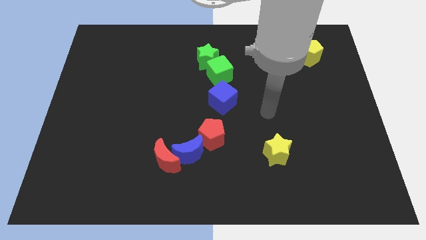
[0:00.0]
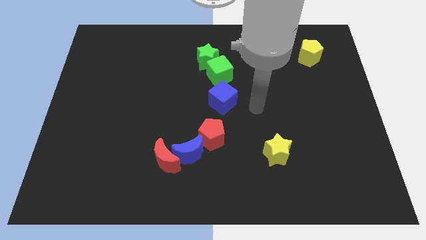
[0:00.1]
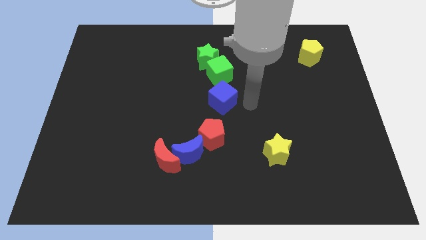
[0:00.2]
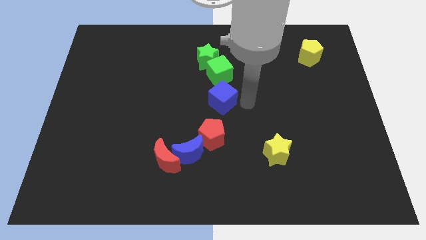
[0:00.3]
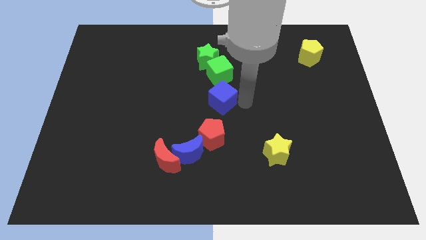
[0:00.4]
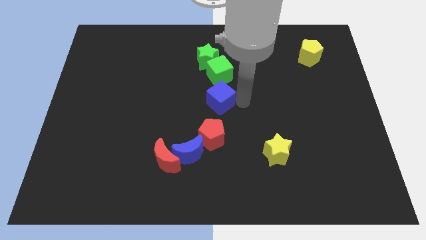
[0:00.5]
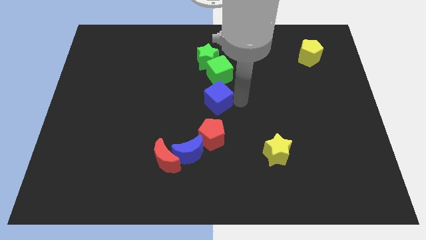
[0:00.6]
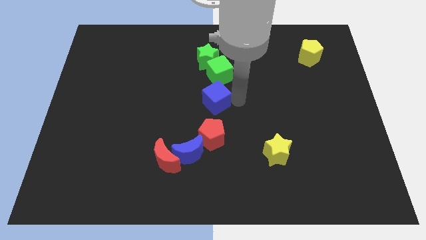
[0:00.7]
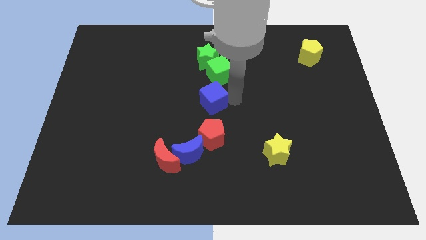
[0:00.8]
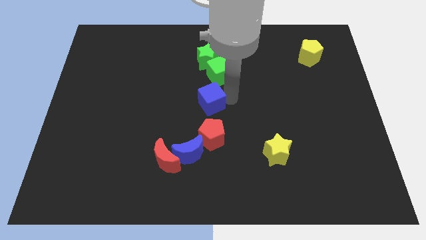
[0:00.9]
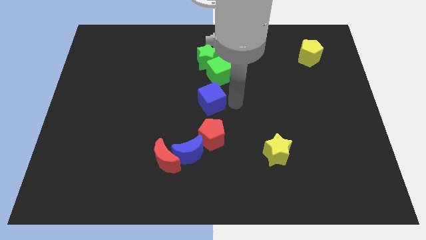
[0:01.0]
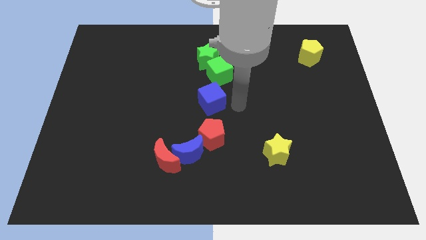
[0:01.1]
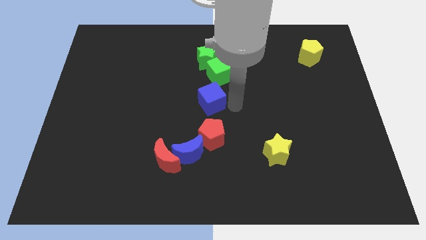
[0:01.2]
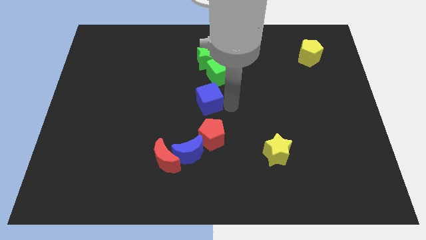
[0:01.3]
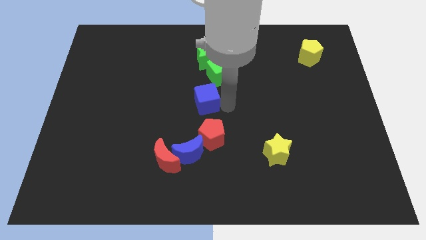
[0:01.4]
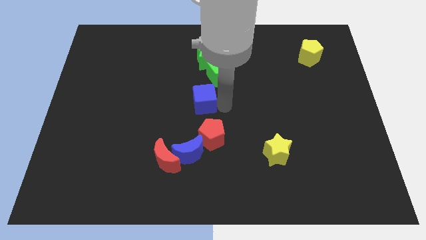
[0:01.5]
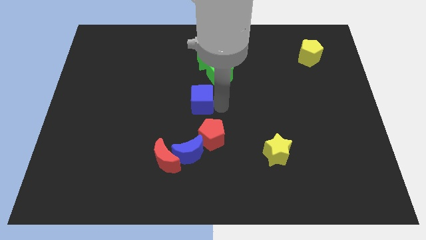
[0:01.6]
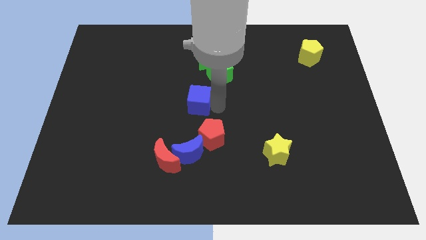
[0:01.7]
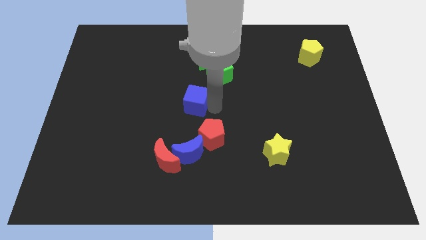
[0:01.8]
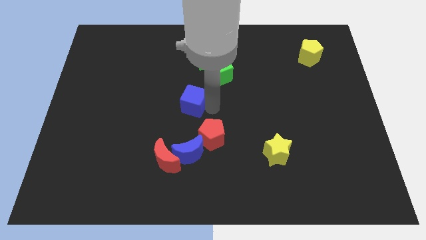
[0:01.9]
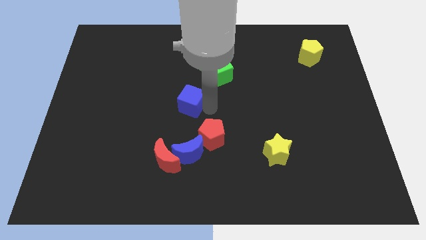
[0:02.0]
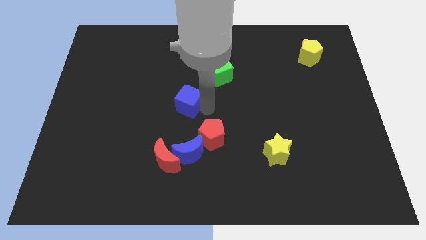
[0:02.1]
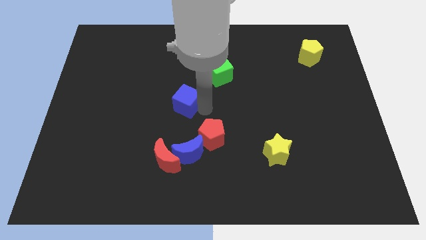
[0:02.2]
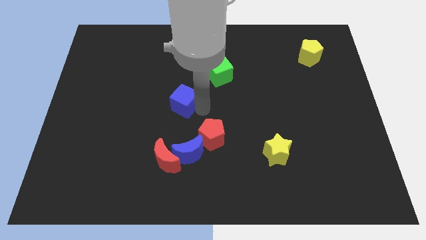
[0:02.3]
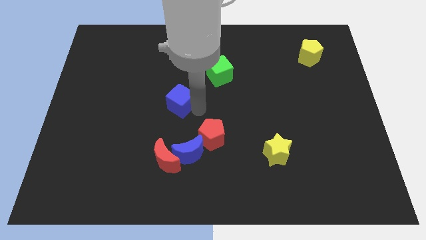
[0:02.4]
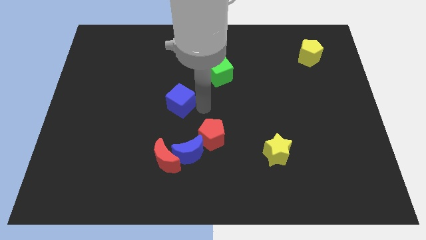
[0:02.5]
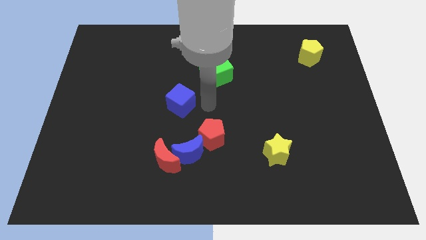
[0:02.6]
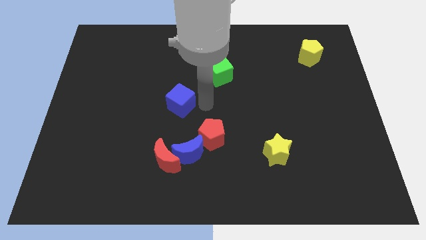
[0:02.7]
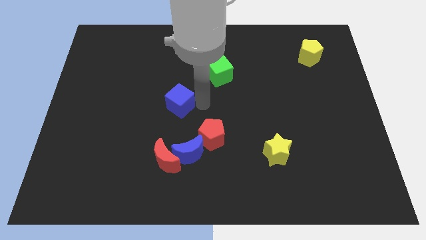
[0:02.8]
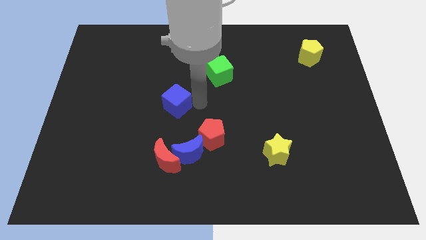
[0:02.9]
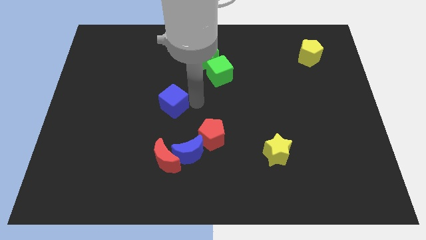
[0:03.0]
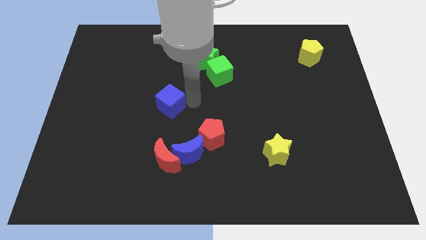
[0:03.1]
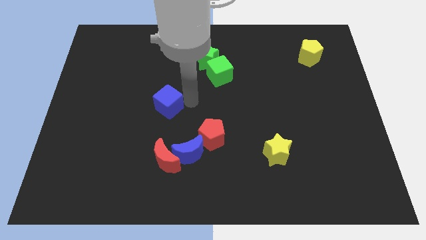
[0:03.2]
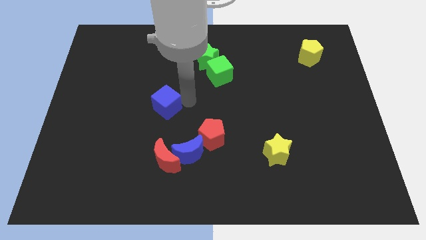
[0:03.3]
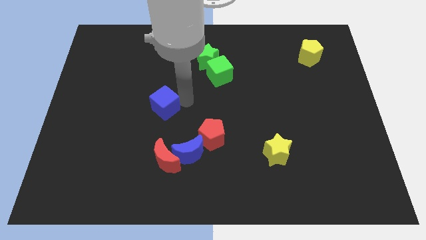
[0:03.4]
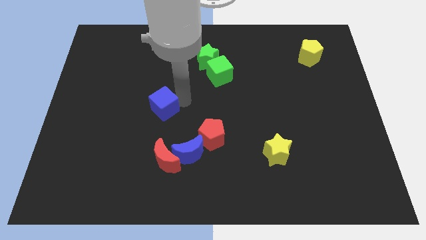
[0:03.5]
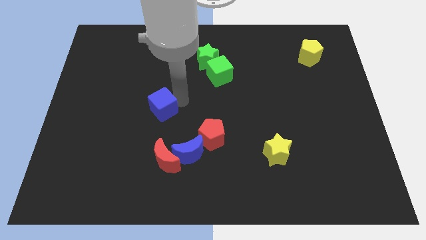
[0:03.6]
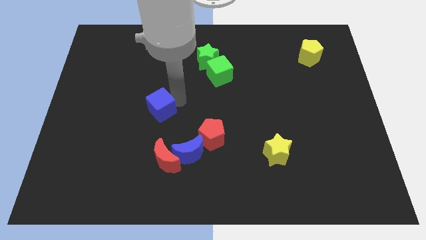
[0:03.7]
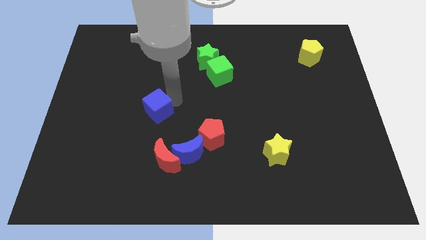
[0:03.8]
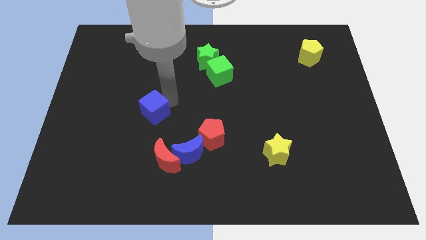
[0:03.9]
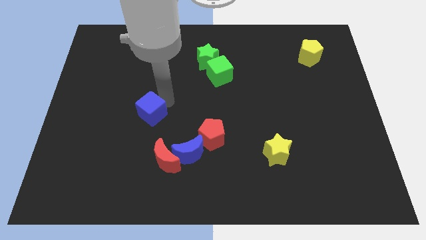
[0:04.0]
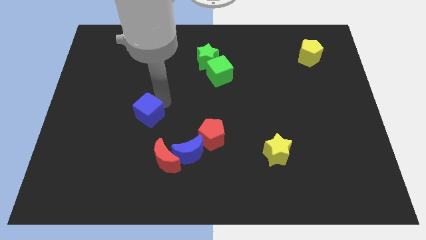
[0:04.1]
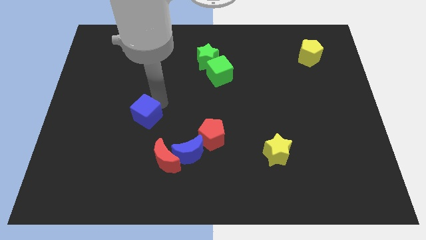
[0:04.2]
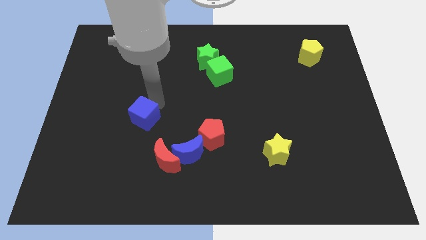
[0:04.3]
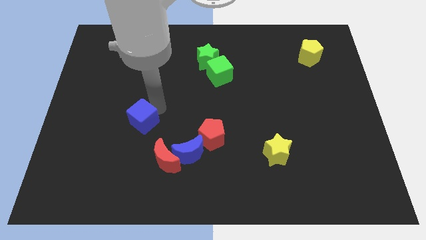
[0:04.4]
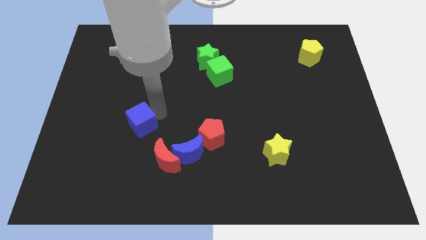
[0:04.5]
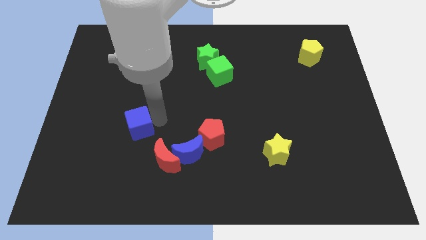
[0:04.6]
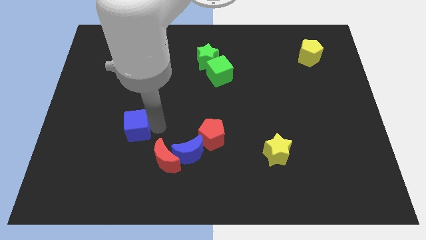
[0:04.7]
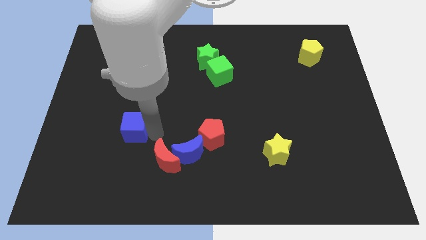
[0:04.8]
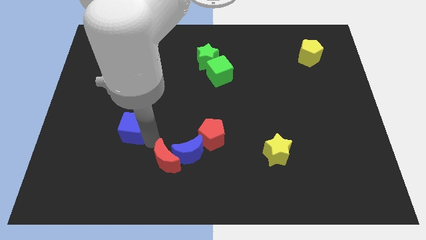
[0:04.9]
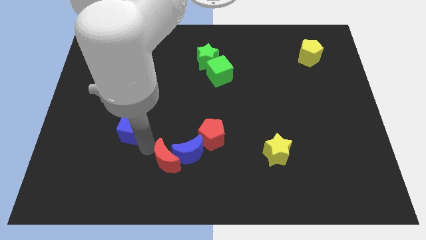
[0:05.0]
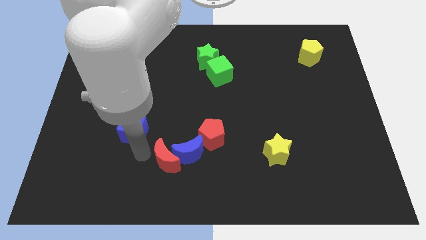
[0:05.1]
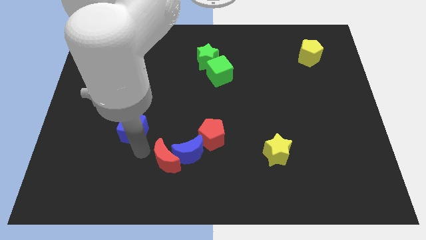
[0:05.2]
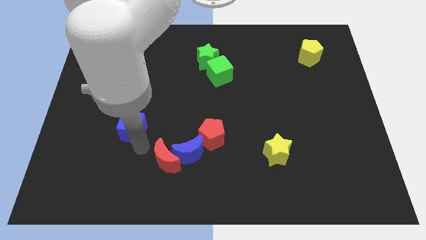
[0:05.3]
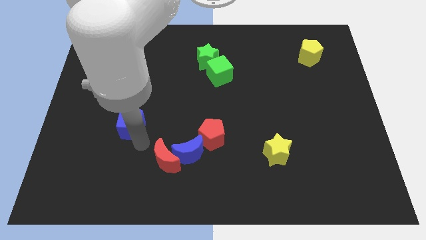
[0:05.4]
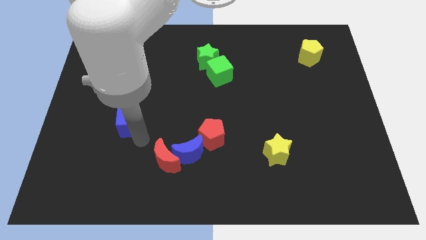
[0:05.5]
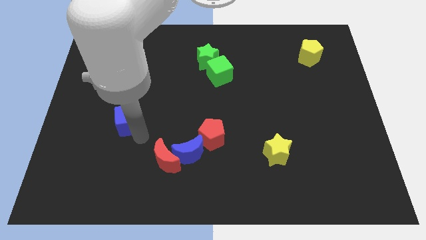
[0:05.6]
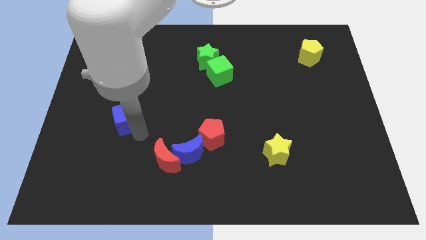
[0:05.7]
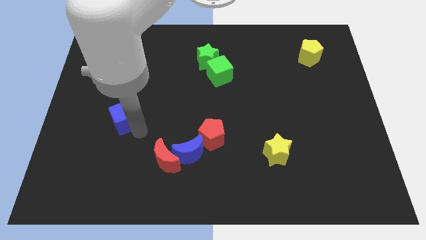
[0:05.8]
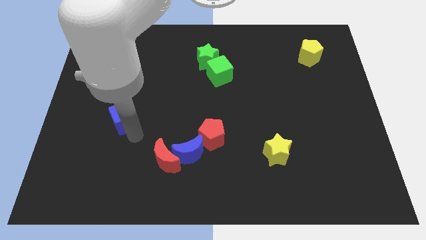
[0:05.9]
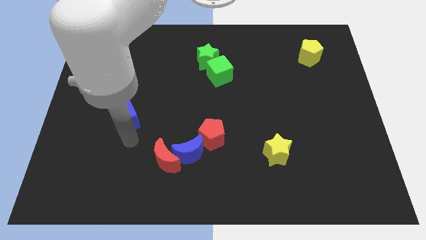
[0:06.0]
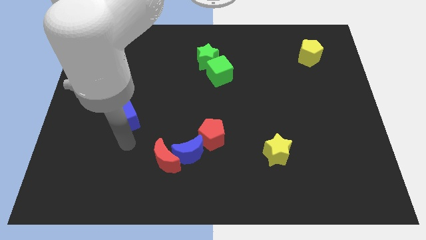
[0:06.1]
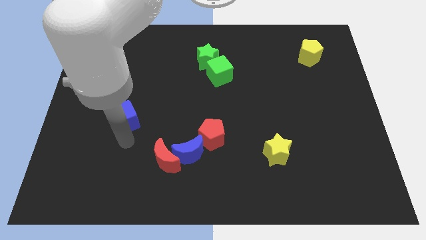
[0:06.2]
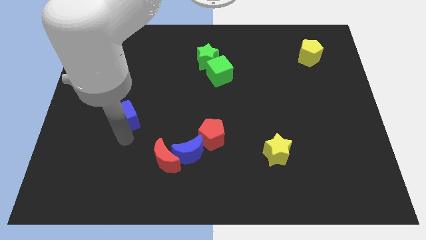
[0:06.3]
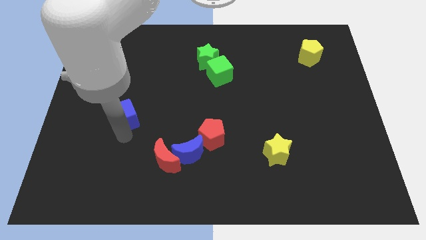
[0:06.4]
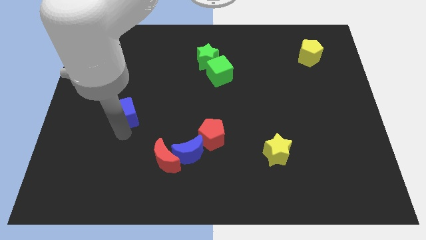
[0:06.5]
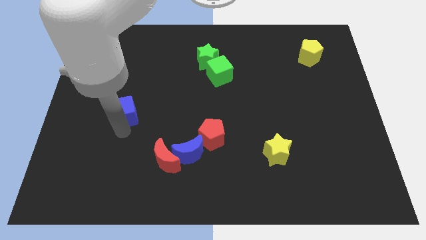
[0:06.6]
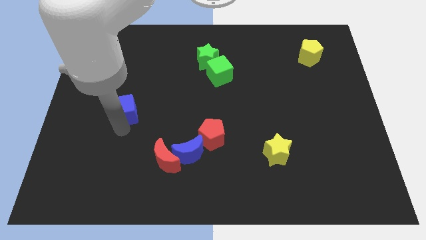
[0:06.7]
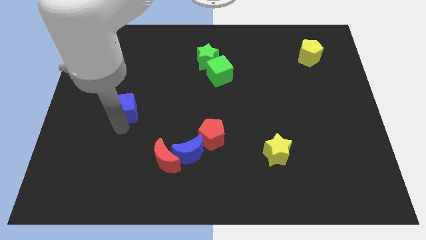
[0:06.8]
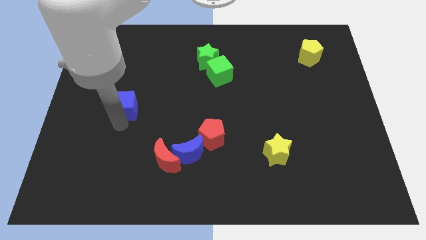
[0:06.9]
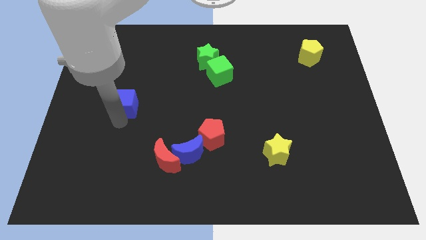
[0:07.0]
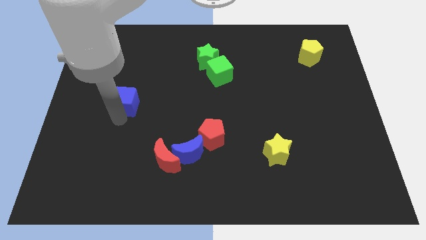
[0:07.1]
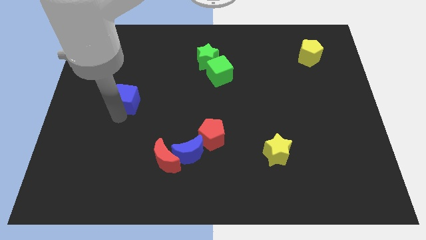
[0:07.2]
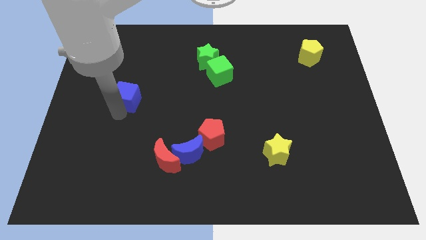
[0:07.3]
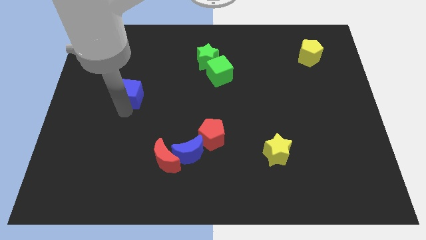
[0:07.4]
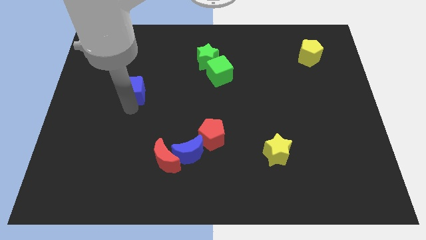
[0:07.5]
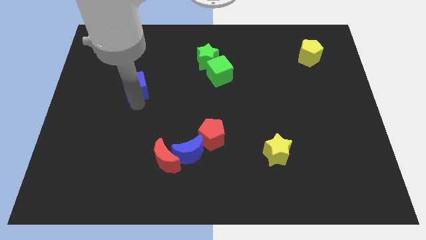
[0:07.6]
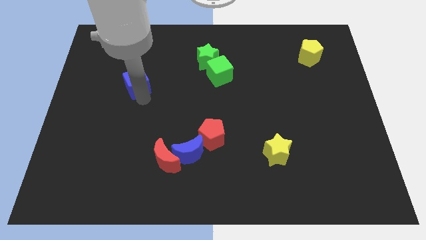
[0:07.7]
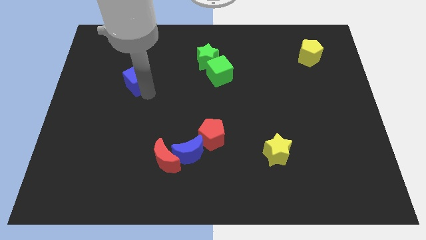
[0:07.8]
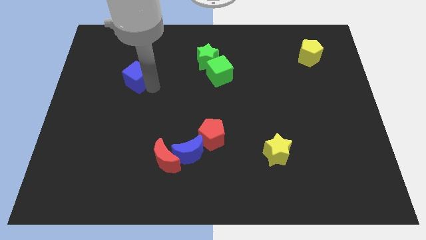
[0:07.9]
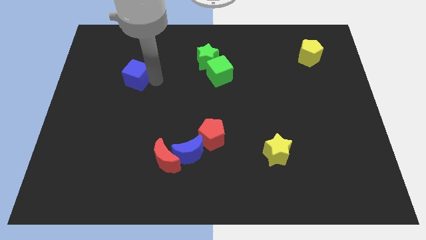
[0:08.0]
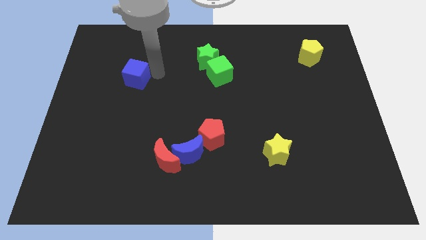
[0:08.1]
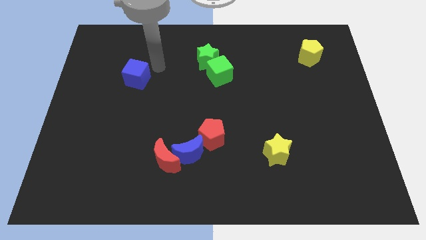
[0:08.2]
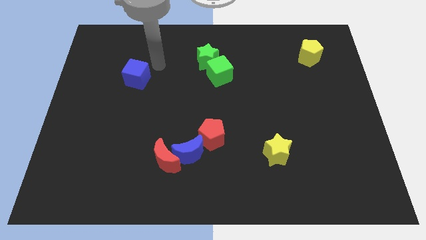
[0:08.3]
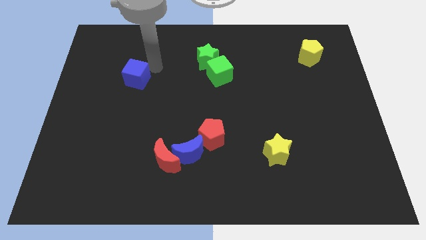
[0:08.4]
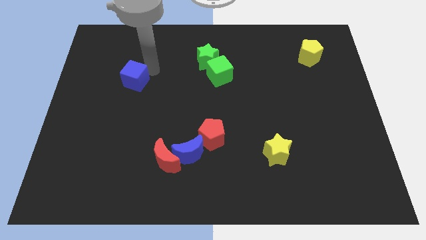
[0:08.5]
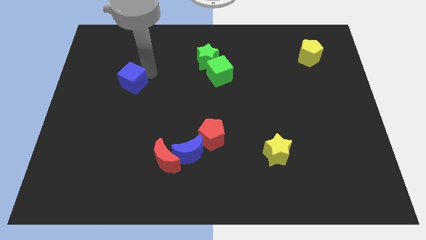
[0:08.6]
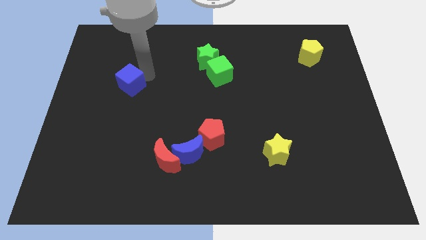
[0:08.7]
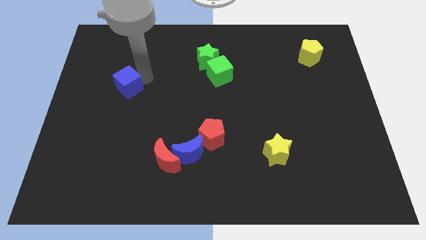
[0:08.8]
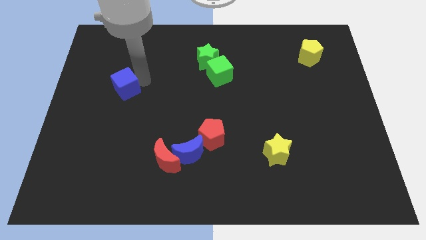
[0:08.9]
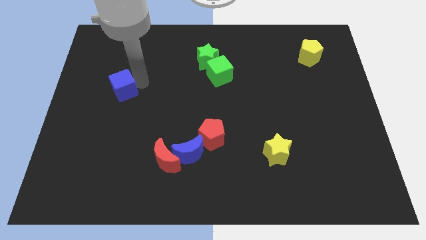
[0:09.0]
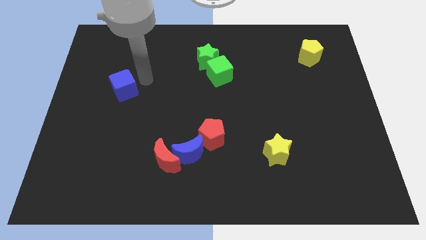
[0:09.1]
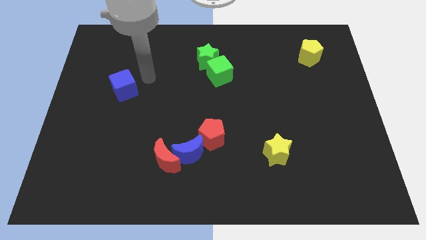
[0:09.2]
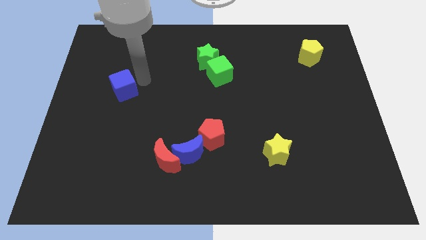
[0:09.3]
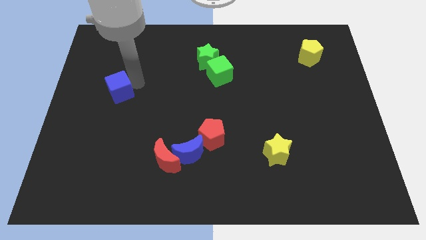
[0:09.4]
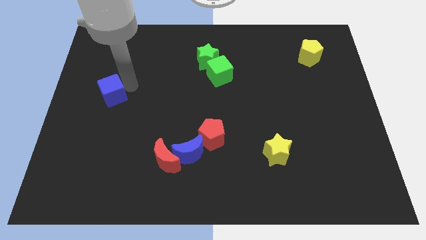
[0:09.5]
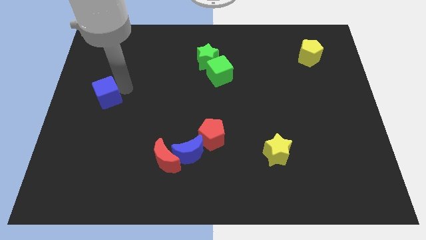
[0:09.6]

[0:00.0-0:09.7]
push the blue cube to the center left
